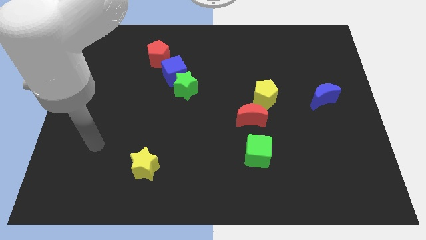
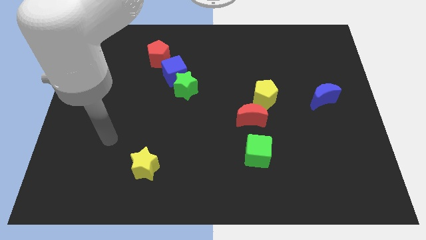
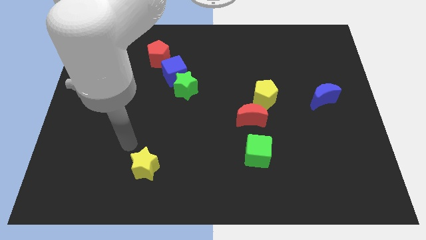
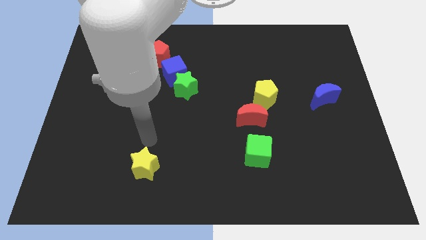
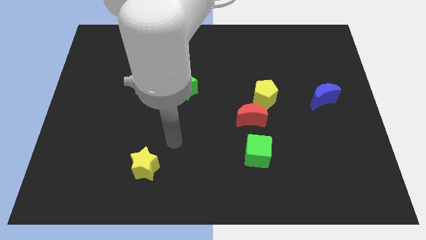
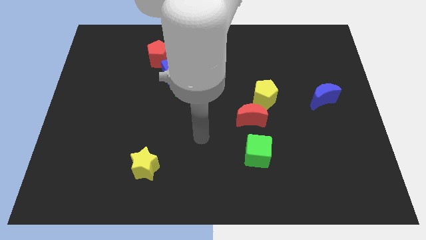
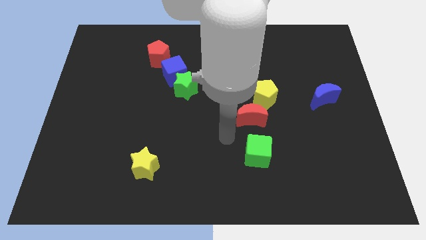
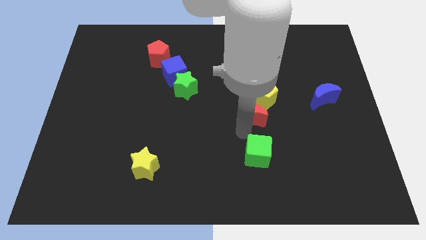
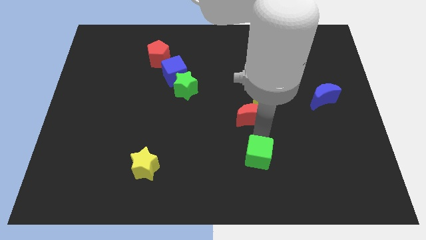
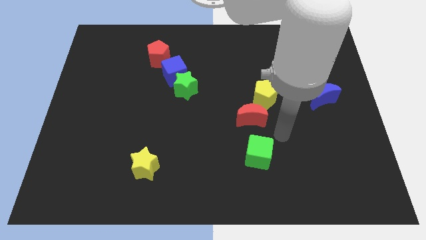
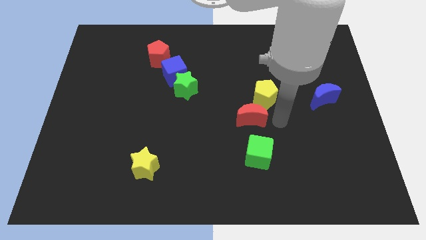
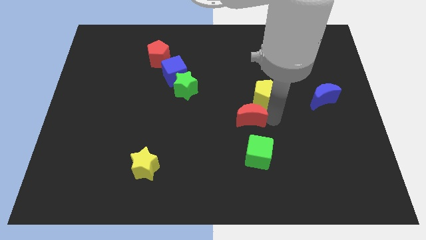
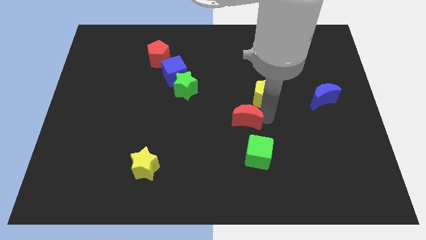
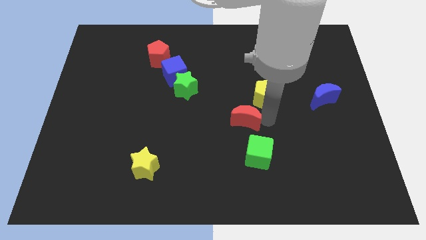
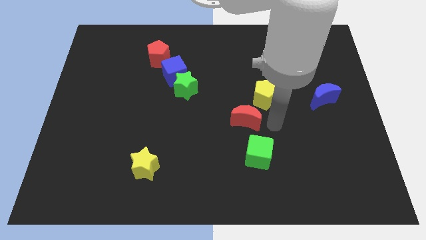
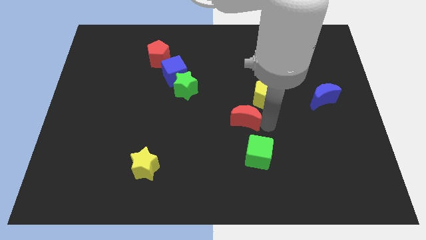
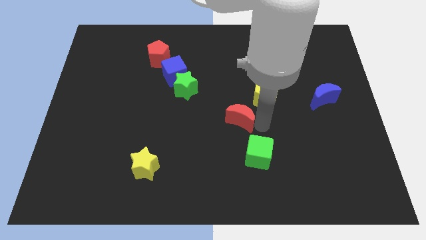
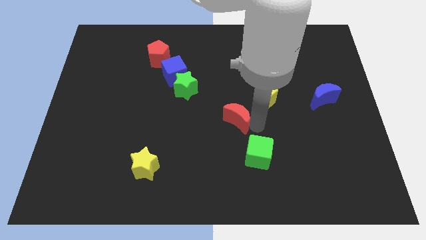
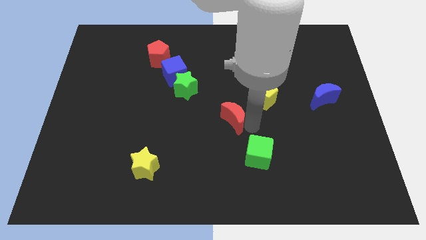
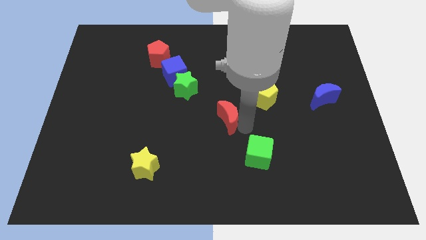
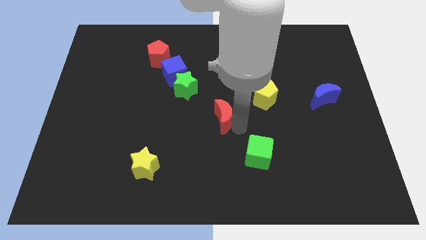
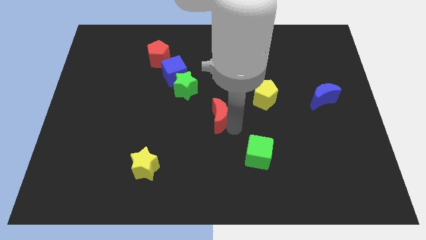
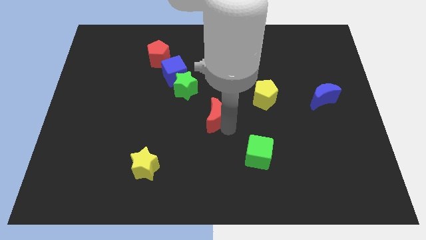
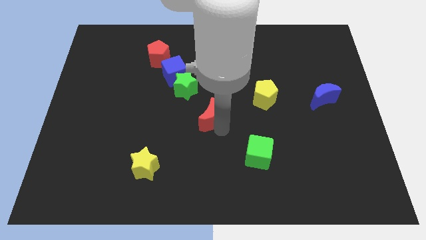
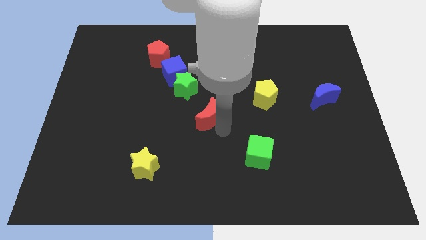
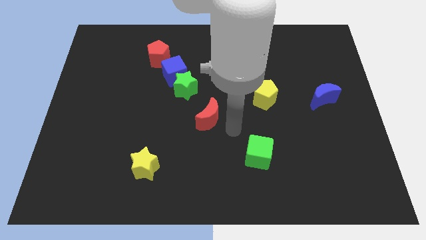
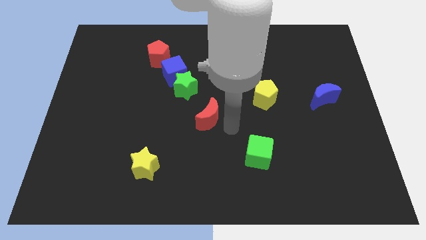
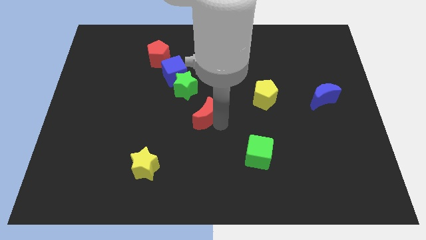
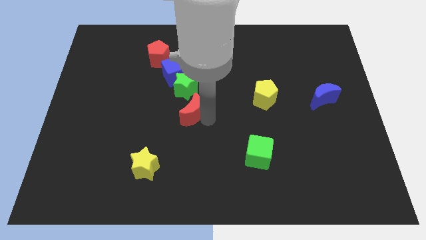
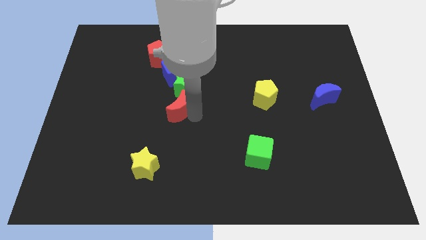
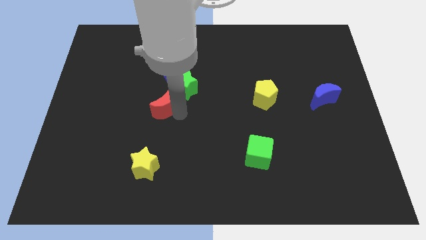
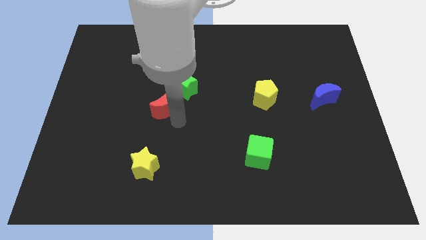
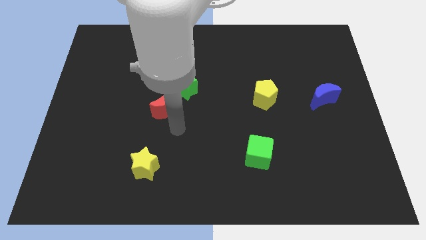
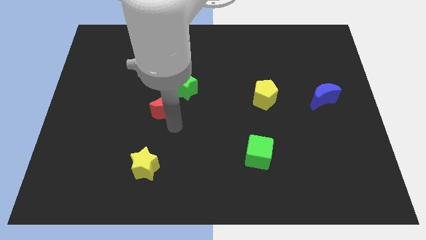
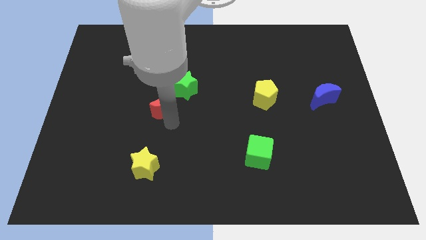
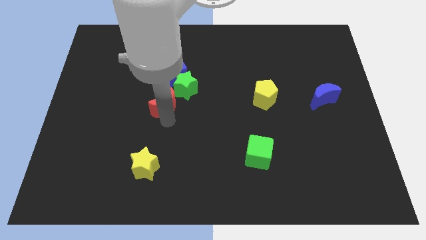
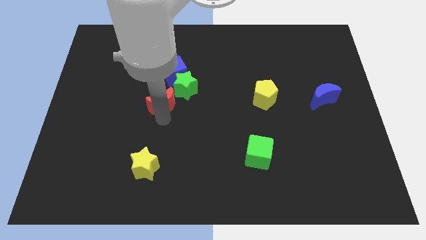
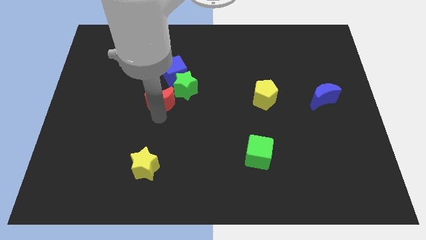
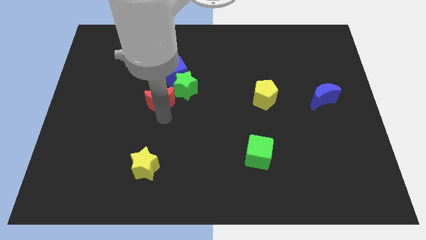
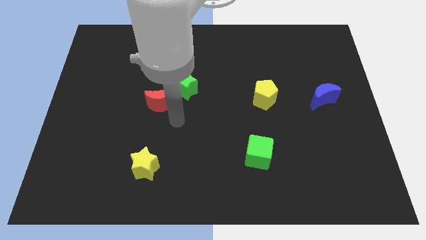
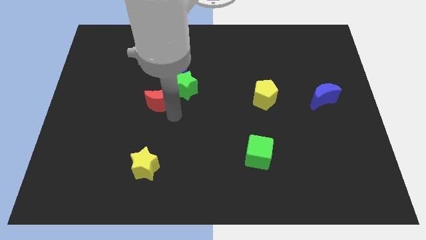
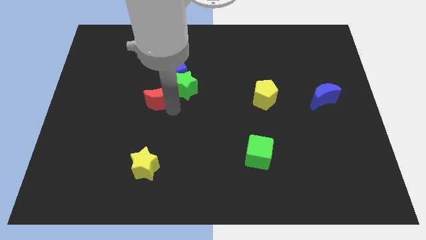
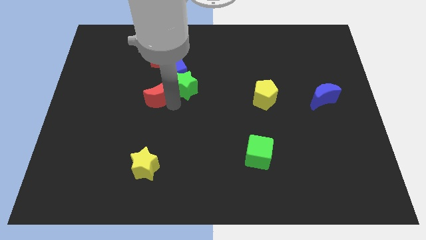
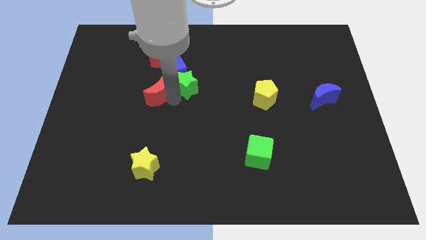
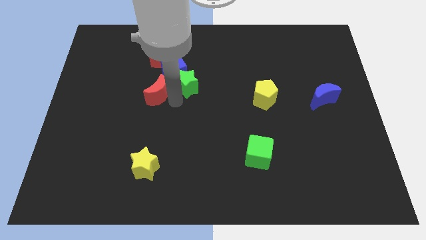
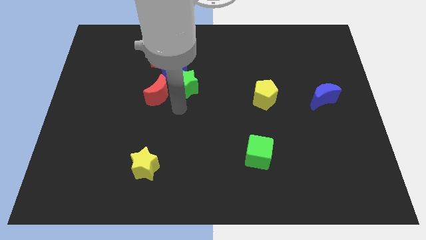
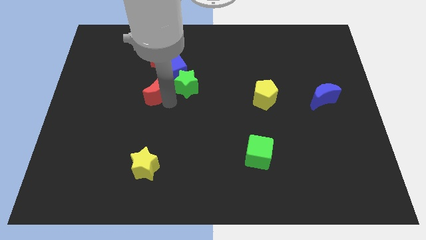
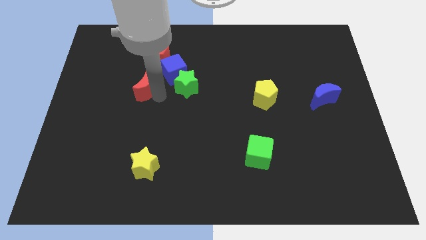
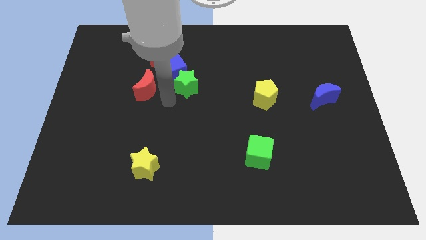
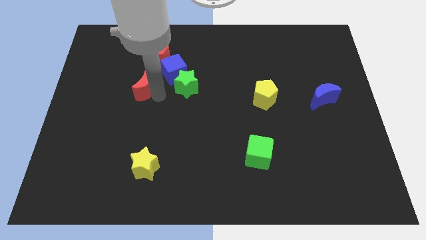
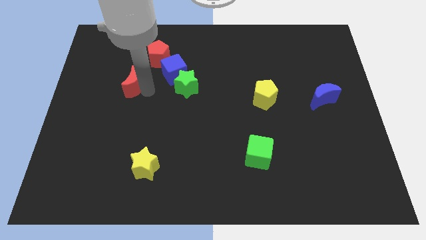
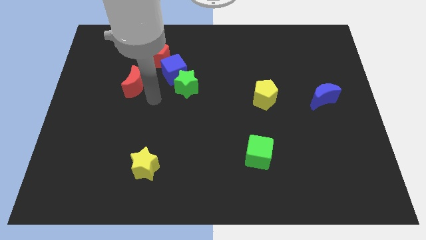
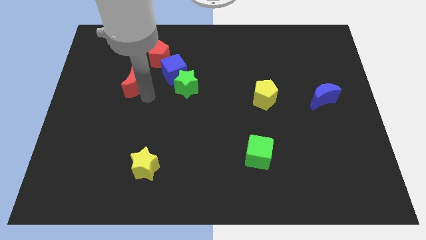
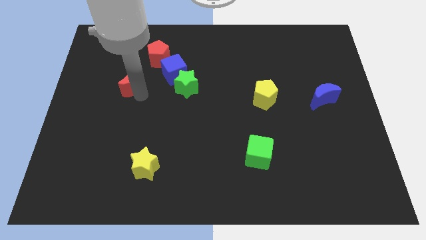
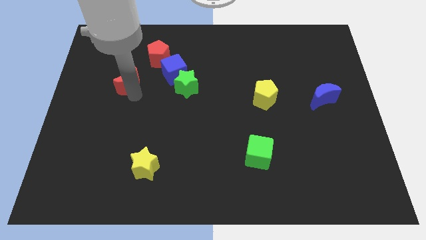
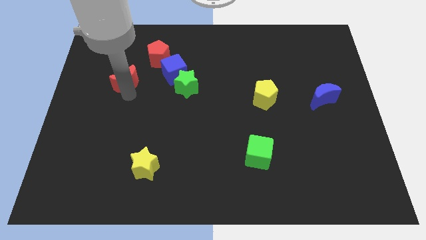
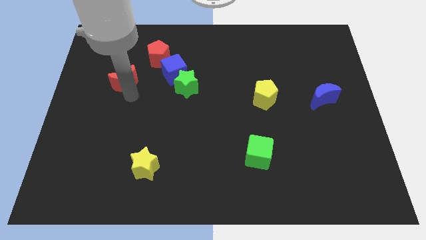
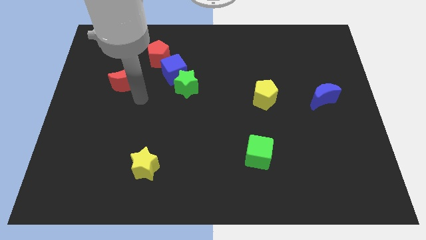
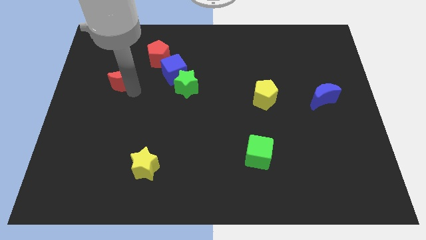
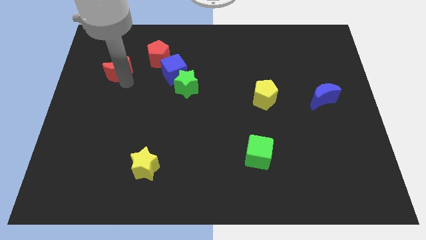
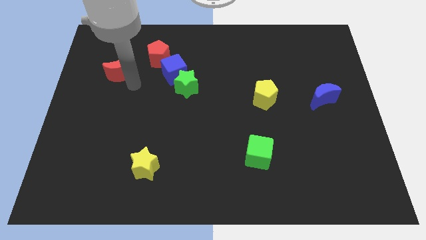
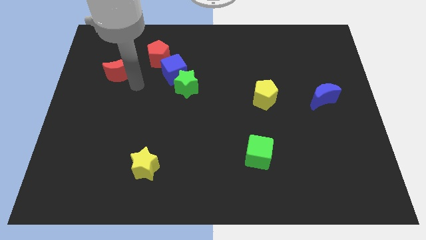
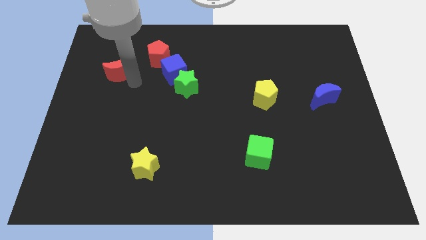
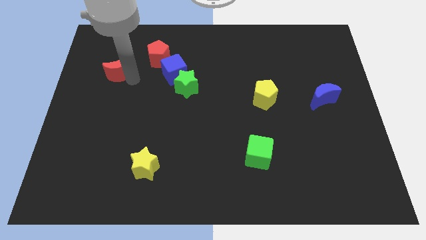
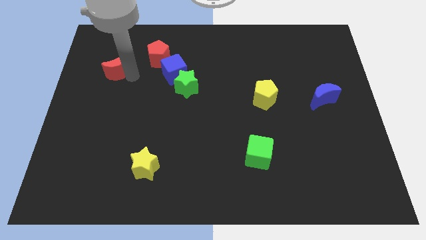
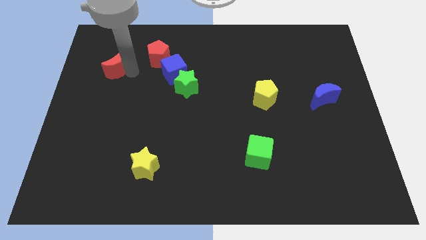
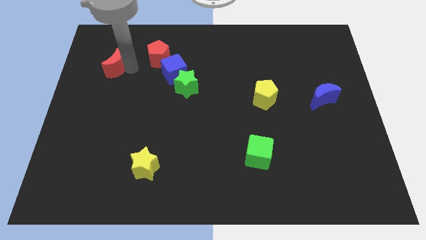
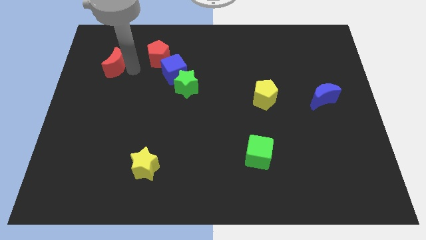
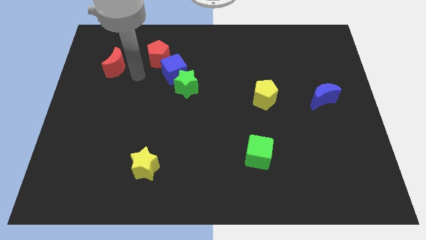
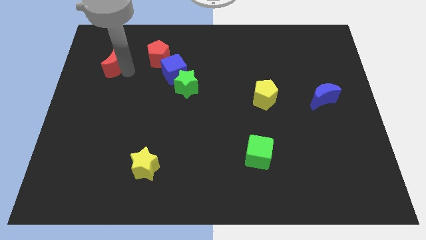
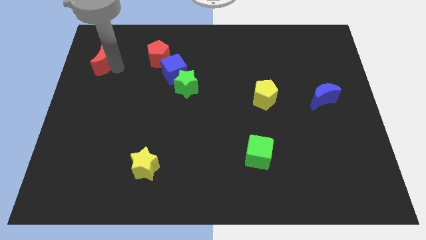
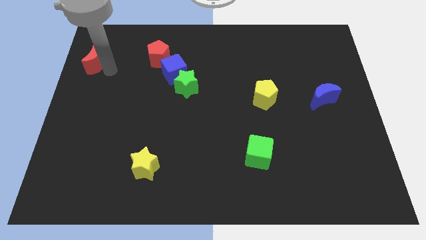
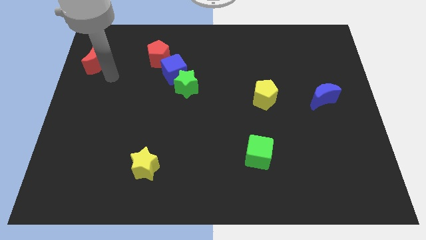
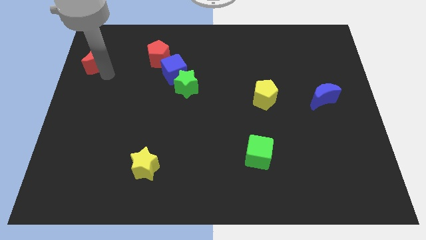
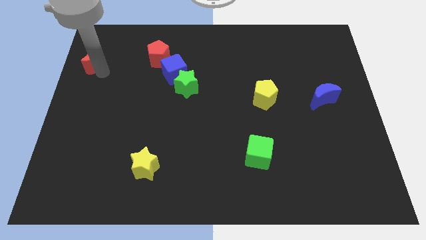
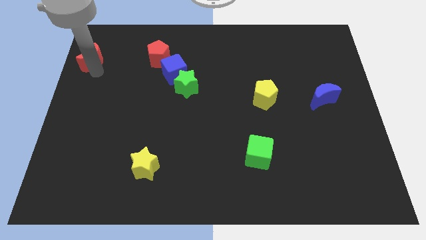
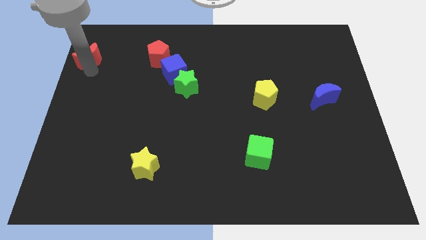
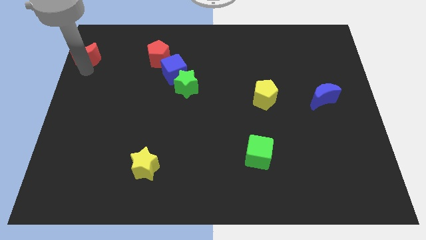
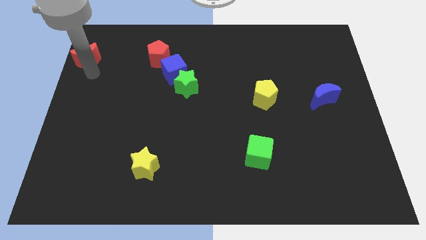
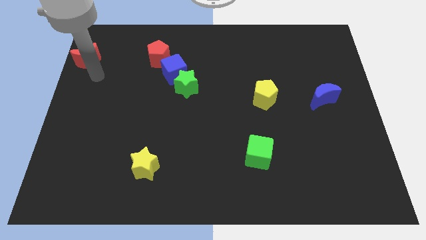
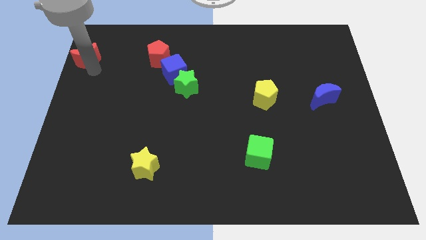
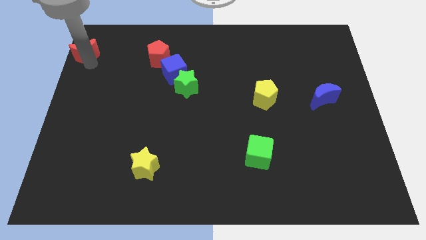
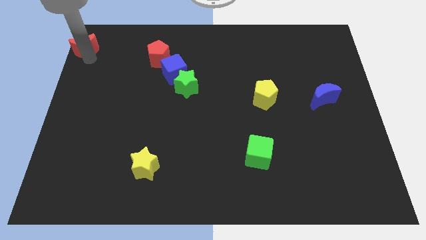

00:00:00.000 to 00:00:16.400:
put the red moon to the top left
